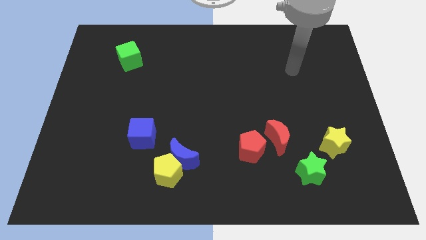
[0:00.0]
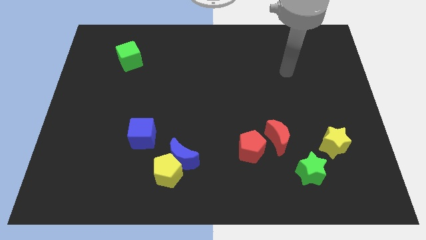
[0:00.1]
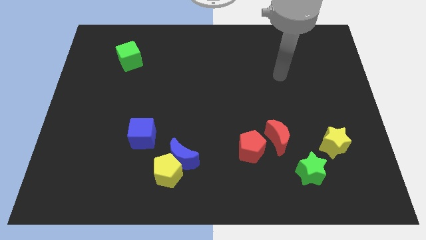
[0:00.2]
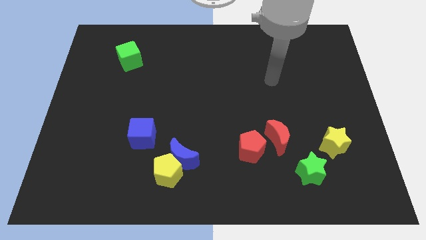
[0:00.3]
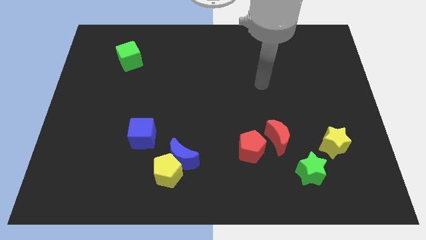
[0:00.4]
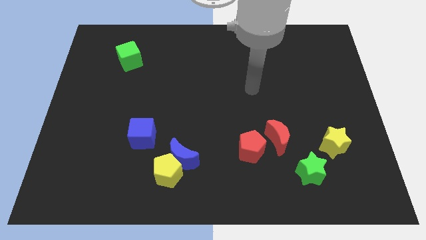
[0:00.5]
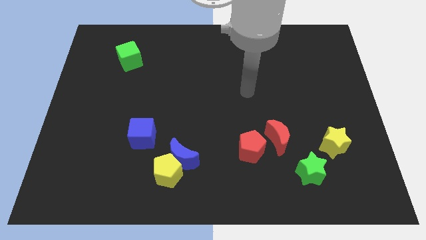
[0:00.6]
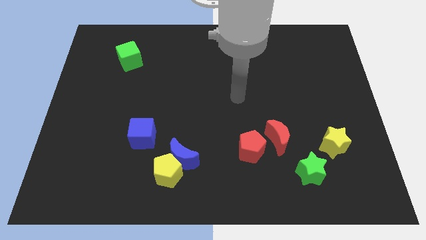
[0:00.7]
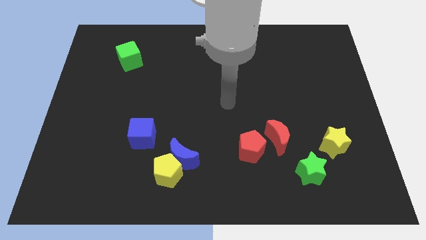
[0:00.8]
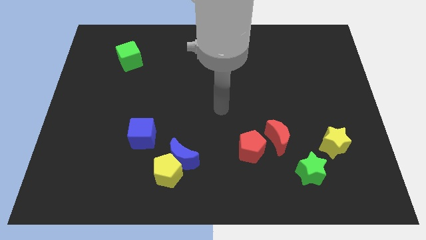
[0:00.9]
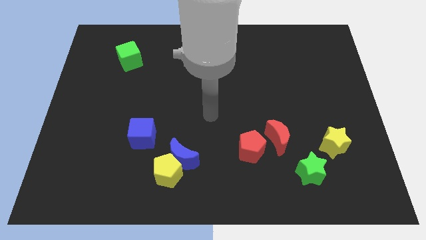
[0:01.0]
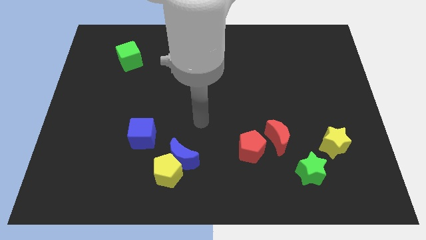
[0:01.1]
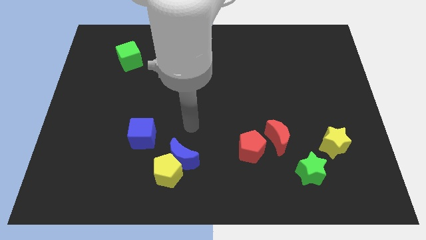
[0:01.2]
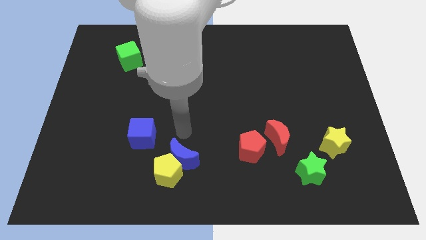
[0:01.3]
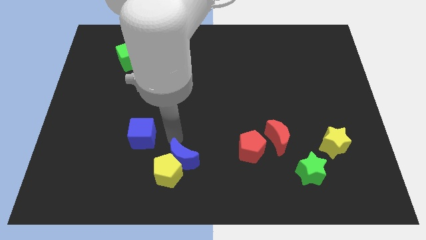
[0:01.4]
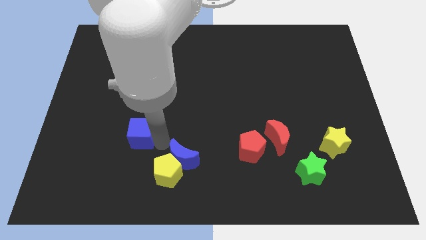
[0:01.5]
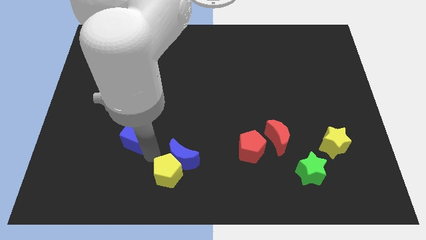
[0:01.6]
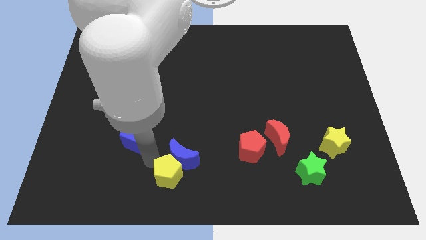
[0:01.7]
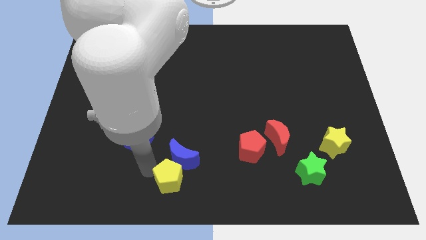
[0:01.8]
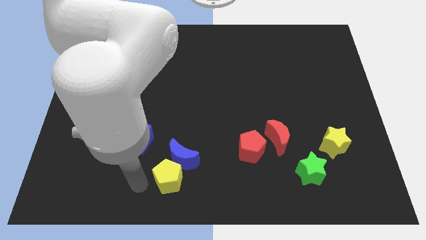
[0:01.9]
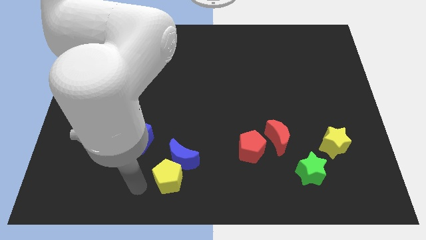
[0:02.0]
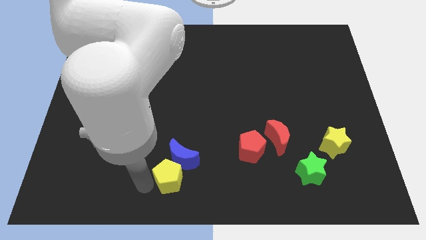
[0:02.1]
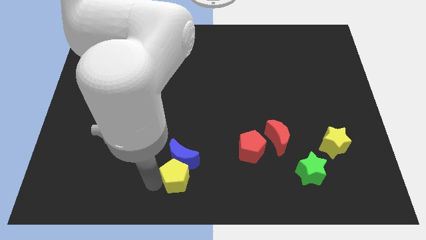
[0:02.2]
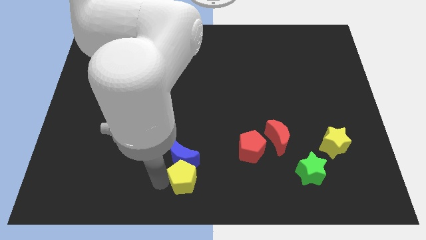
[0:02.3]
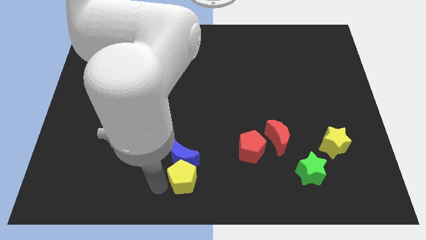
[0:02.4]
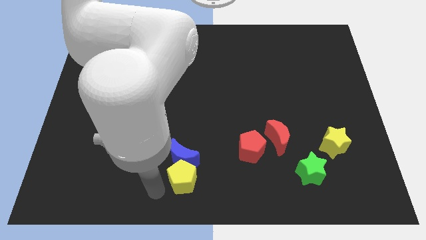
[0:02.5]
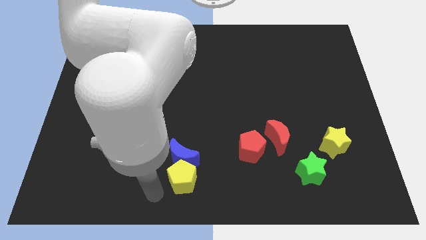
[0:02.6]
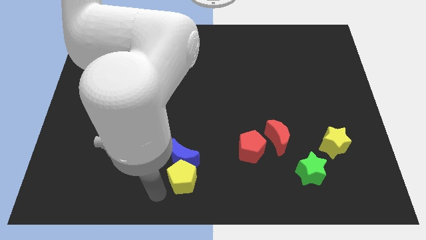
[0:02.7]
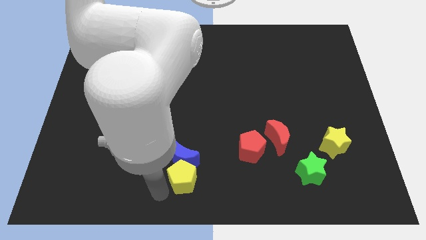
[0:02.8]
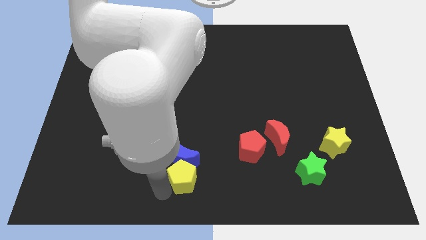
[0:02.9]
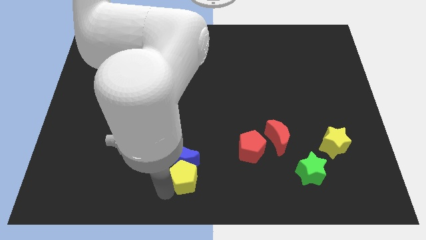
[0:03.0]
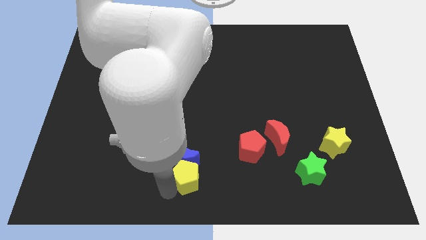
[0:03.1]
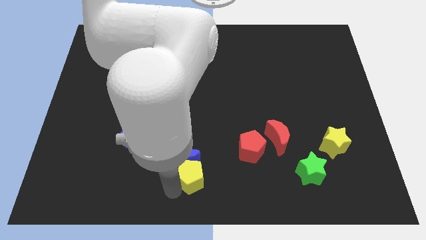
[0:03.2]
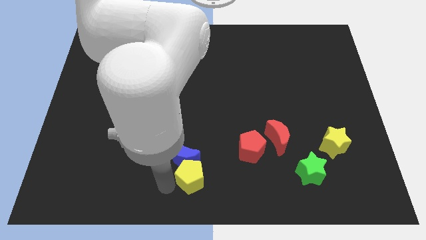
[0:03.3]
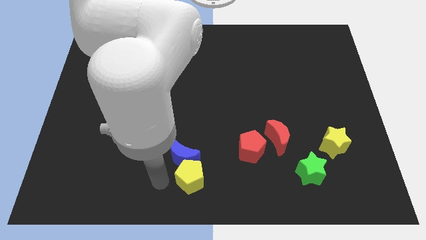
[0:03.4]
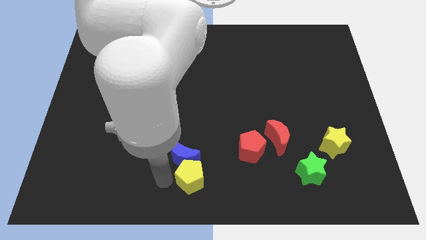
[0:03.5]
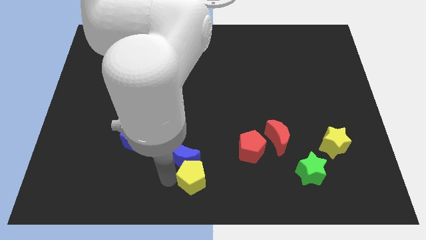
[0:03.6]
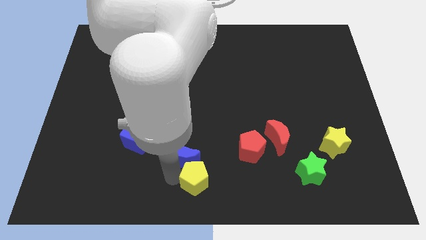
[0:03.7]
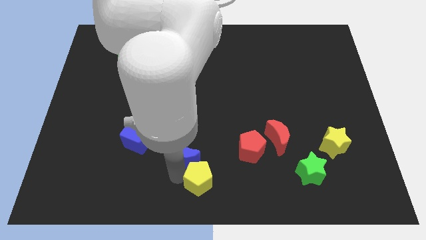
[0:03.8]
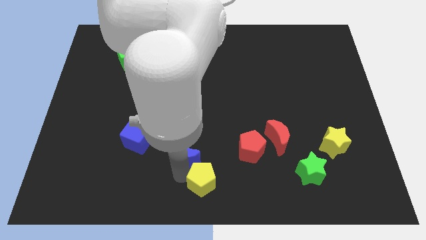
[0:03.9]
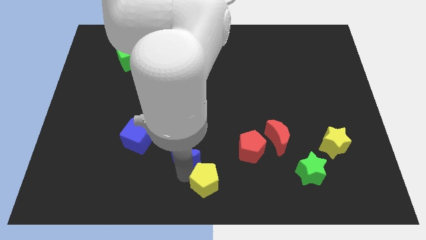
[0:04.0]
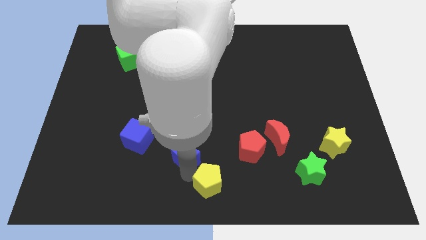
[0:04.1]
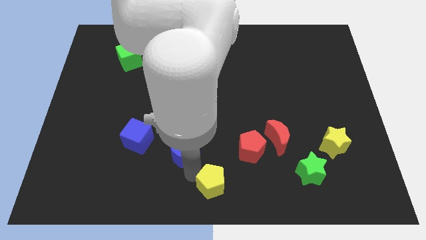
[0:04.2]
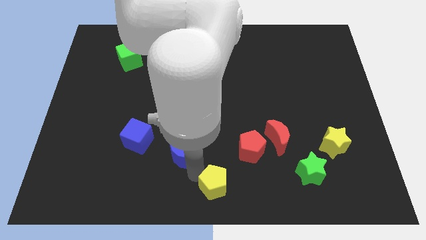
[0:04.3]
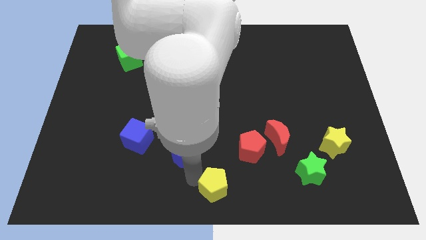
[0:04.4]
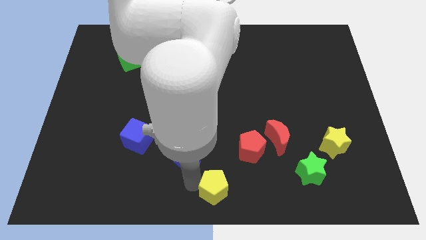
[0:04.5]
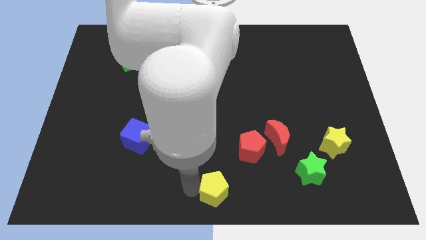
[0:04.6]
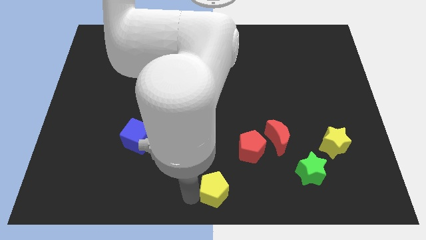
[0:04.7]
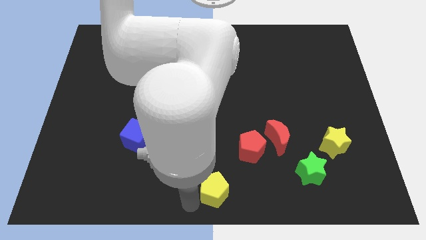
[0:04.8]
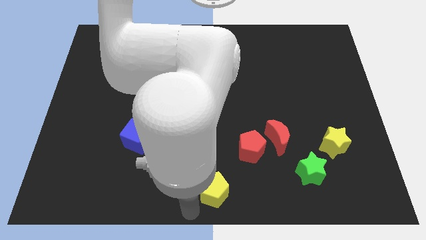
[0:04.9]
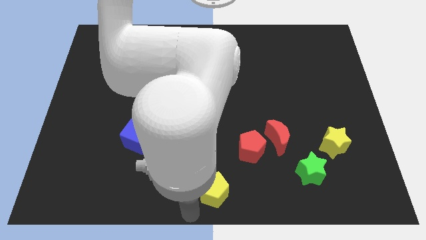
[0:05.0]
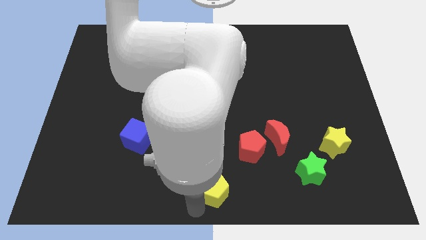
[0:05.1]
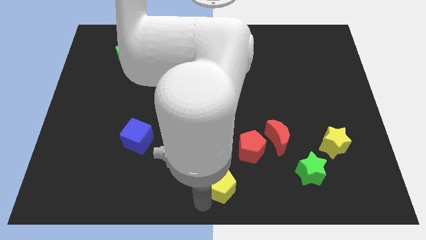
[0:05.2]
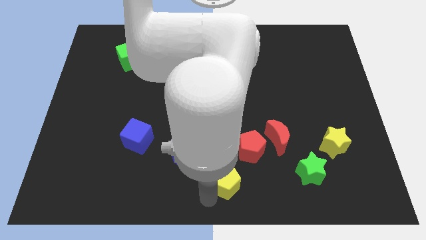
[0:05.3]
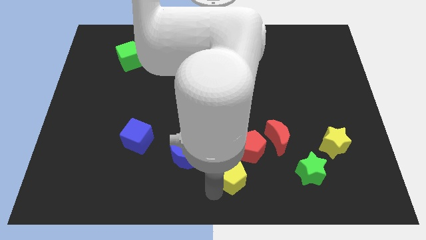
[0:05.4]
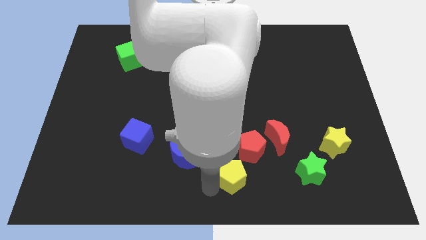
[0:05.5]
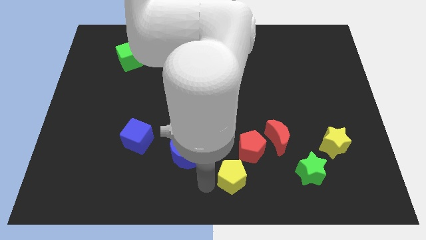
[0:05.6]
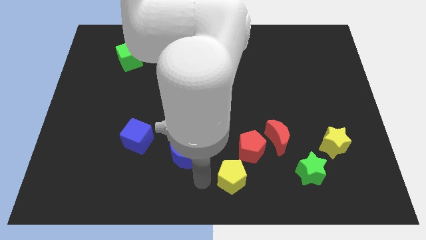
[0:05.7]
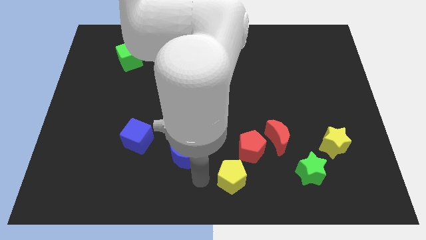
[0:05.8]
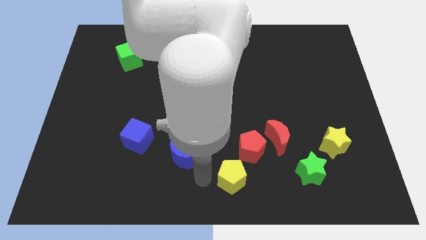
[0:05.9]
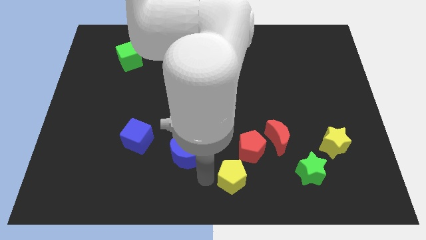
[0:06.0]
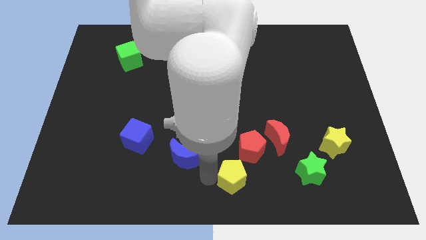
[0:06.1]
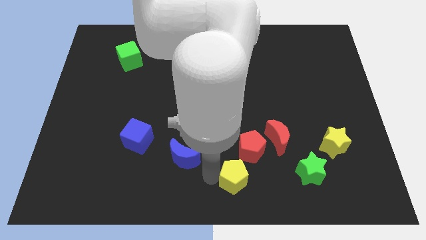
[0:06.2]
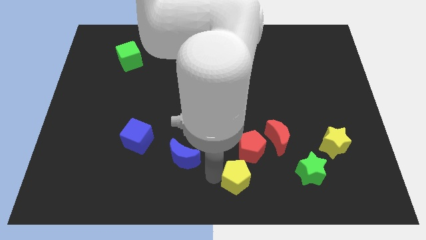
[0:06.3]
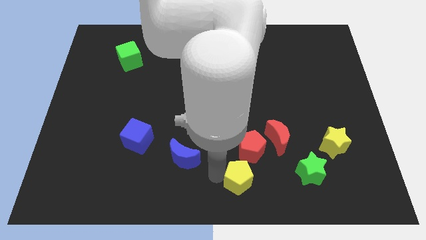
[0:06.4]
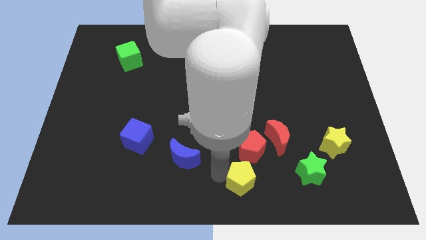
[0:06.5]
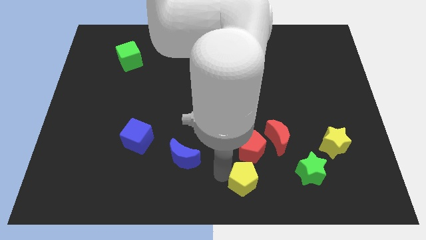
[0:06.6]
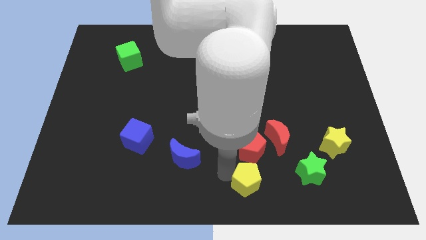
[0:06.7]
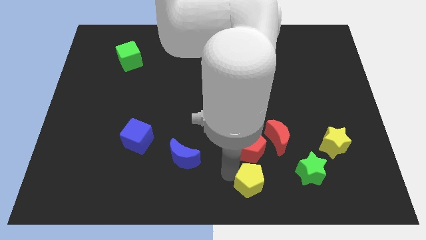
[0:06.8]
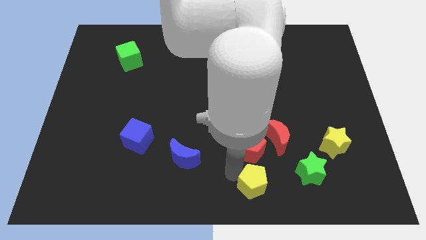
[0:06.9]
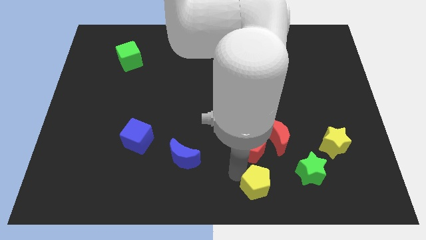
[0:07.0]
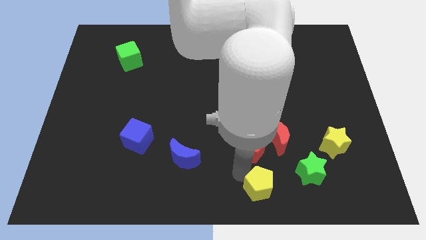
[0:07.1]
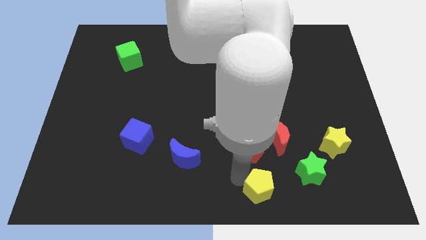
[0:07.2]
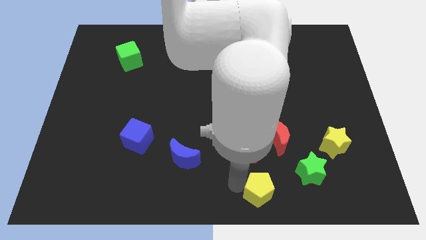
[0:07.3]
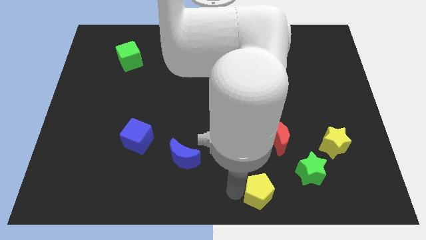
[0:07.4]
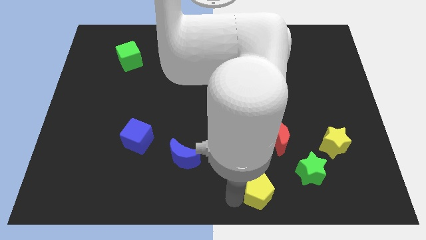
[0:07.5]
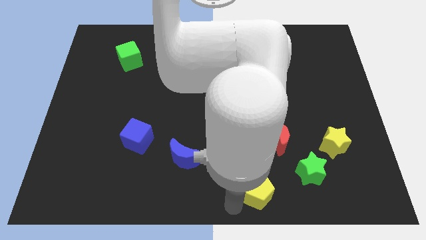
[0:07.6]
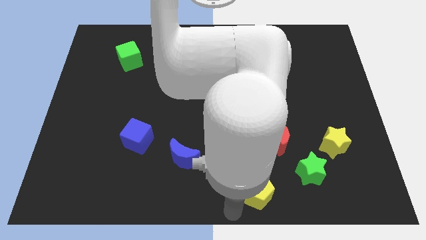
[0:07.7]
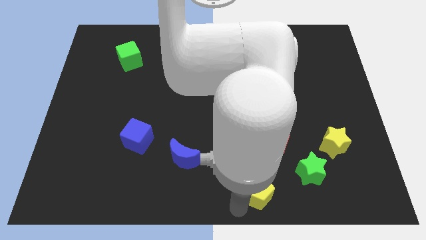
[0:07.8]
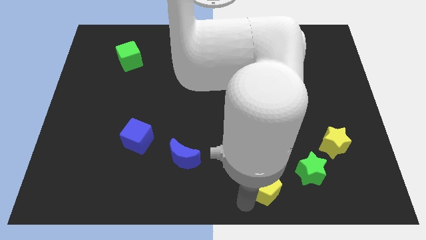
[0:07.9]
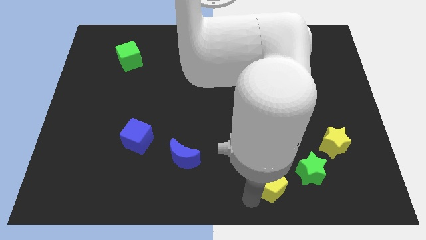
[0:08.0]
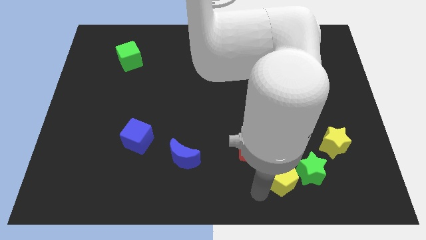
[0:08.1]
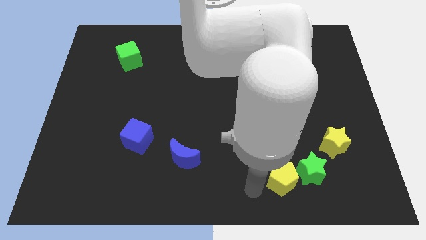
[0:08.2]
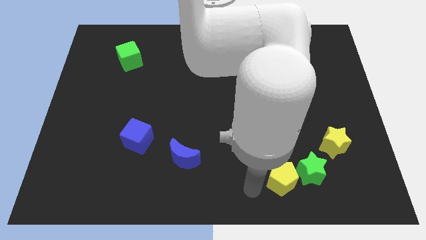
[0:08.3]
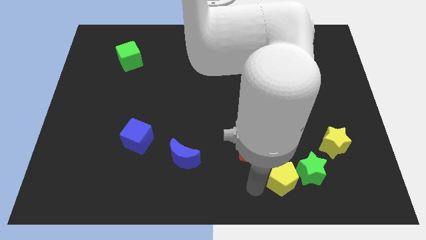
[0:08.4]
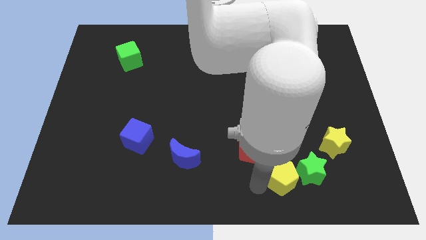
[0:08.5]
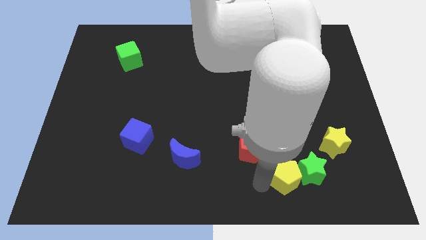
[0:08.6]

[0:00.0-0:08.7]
slide the yellow pentagon next to the green star
